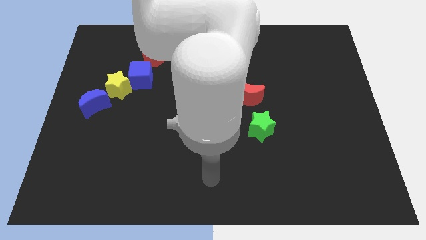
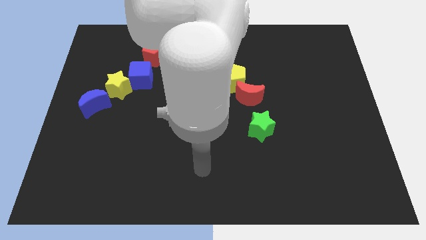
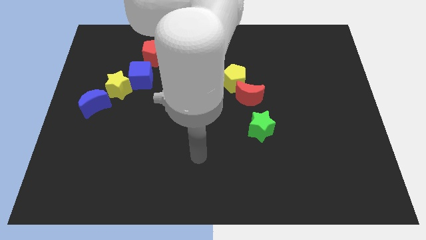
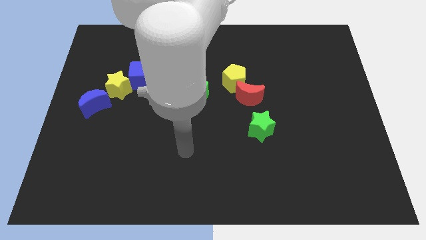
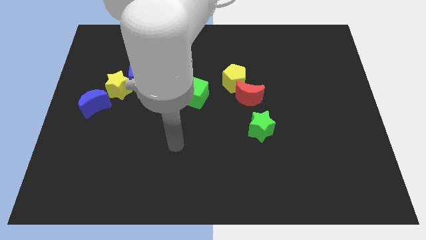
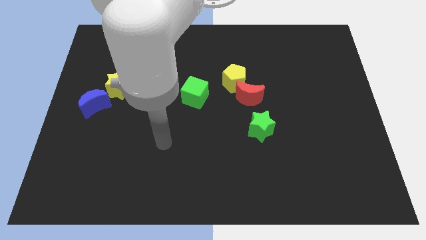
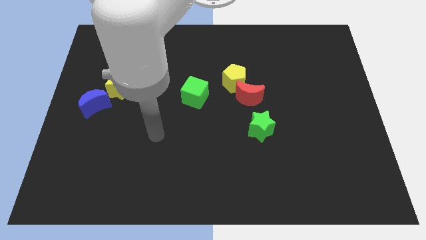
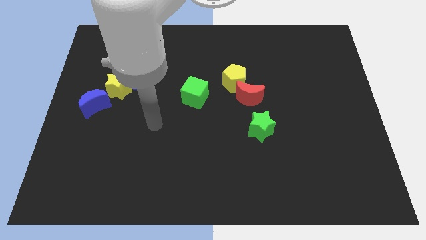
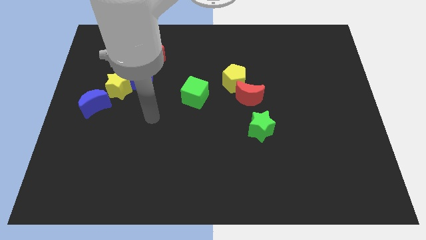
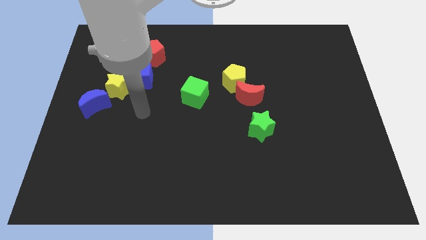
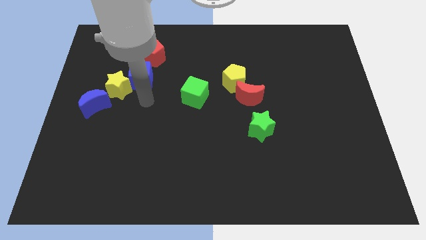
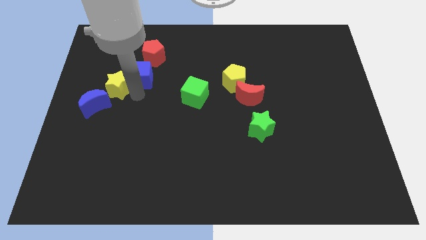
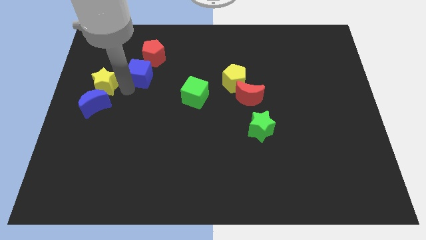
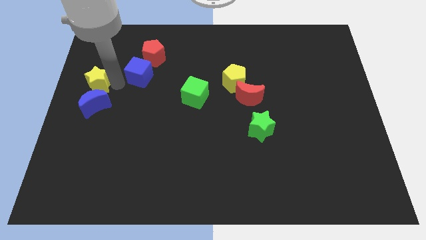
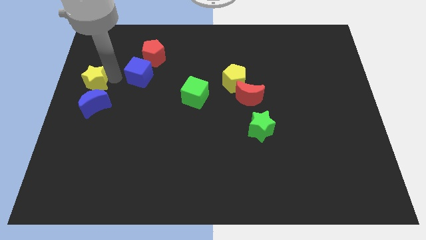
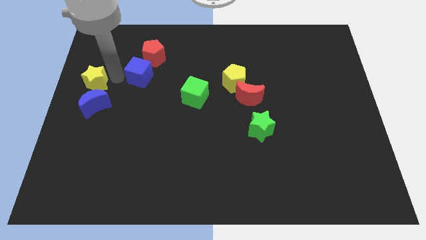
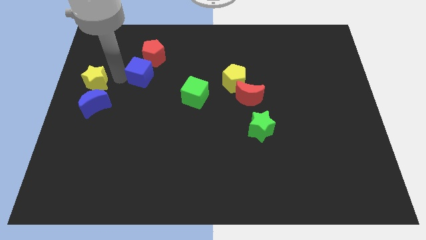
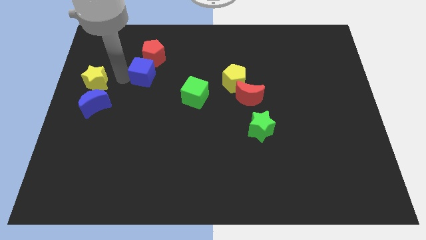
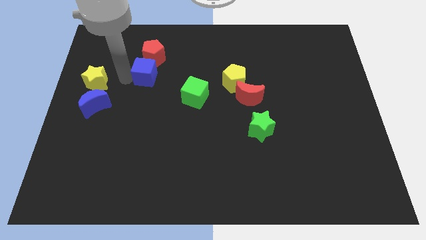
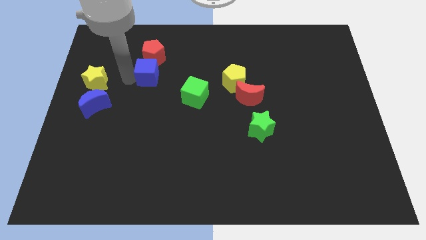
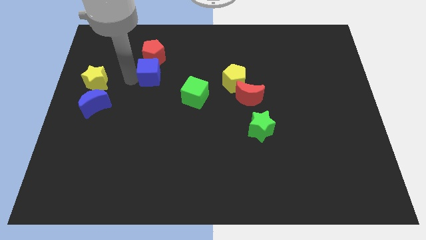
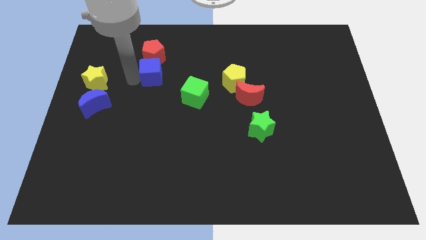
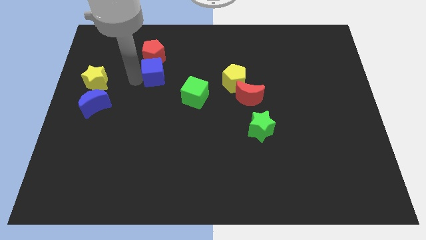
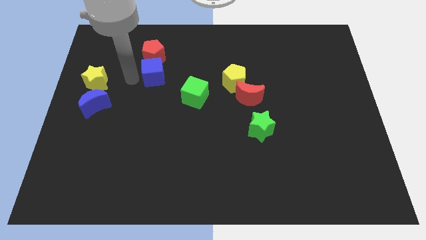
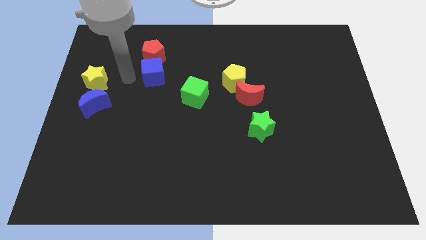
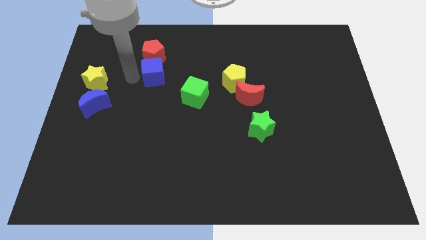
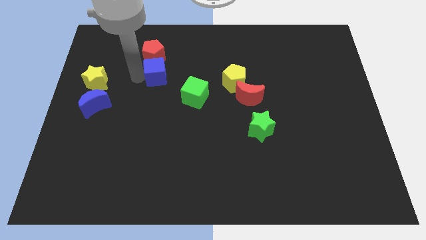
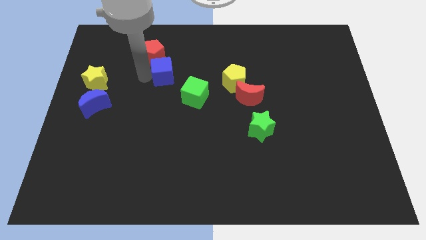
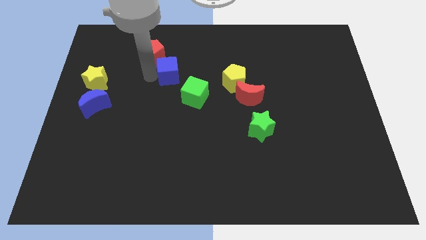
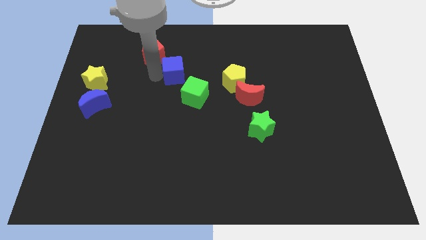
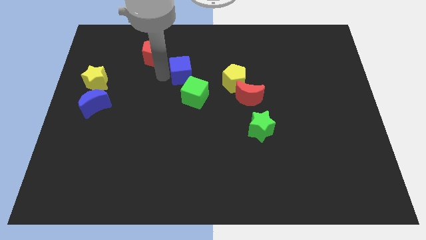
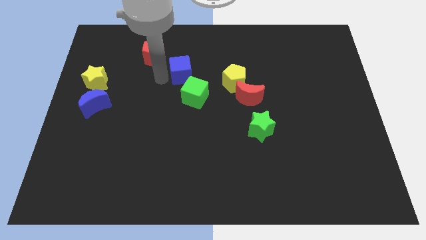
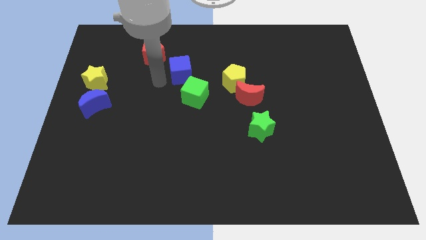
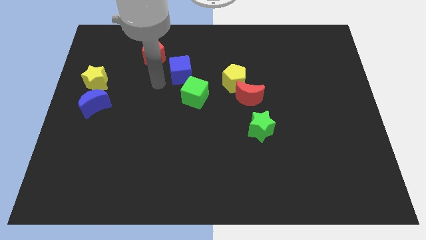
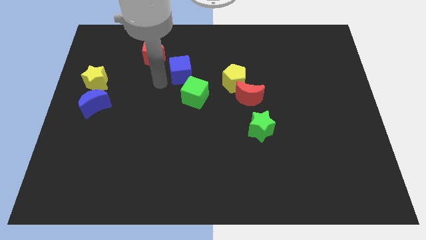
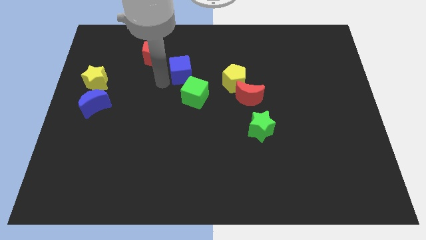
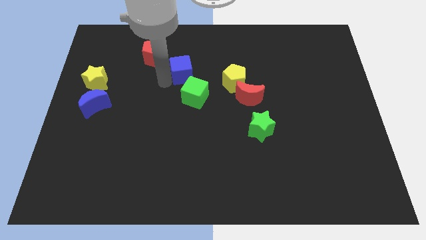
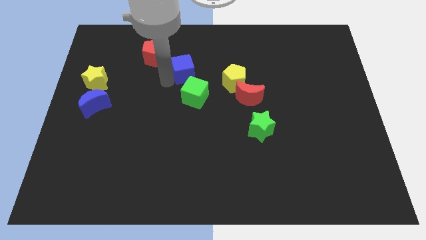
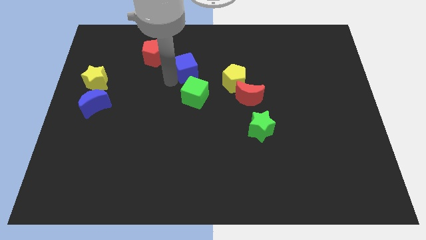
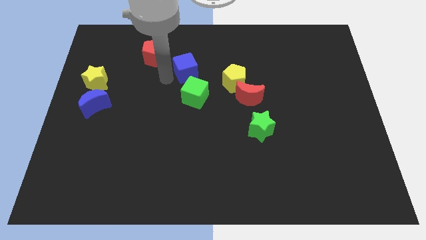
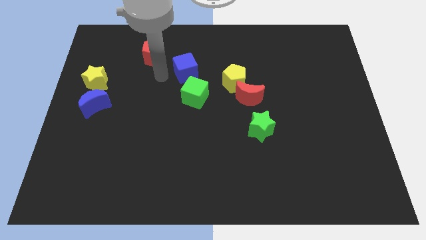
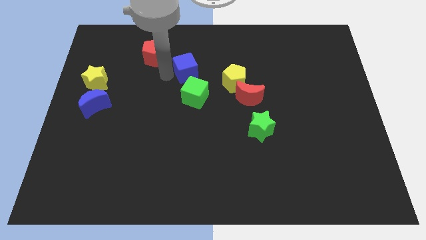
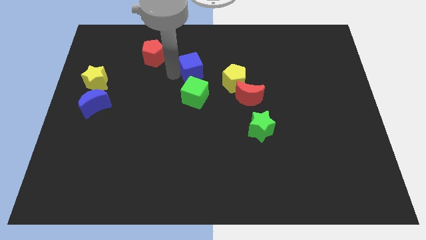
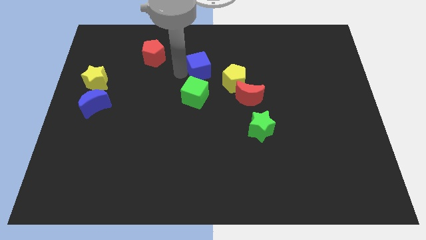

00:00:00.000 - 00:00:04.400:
slide the blue cube to the top left side of the yellow pentagon

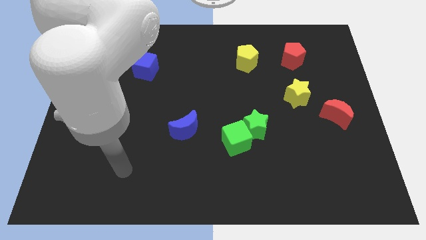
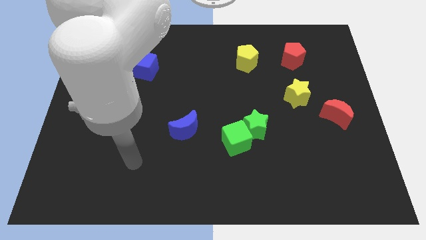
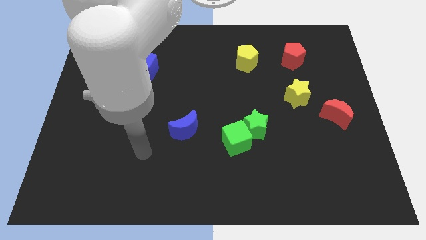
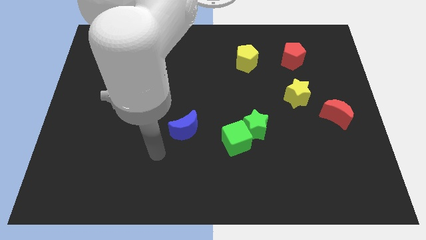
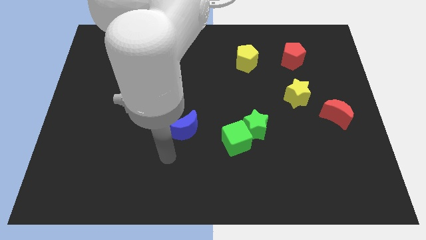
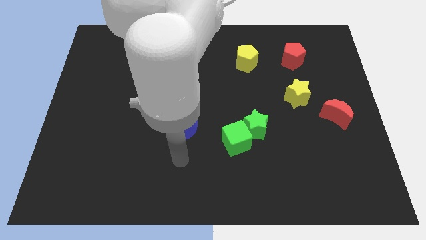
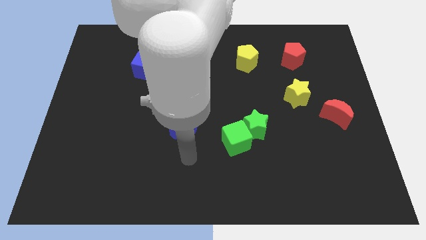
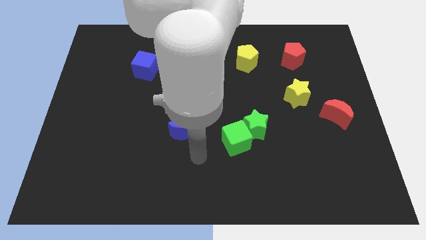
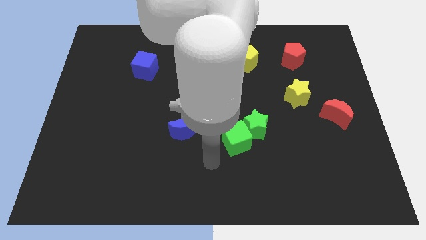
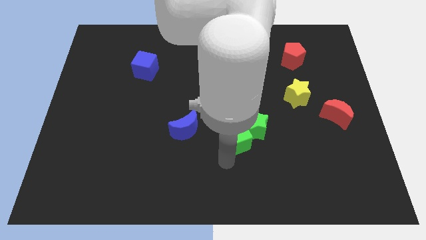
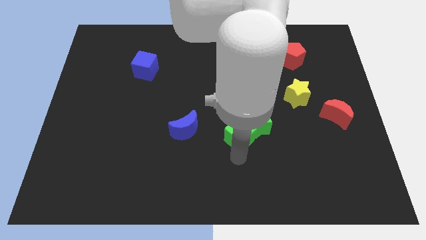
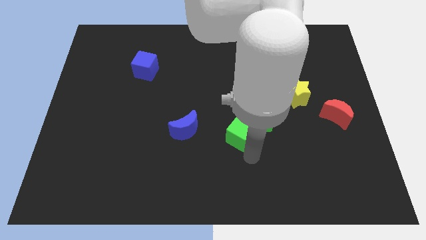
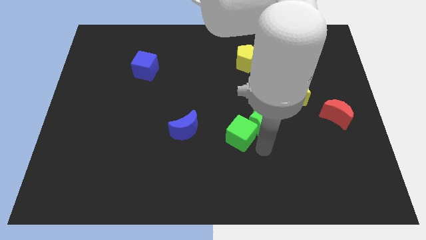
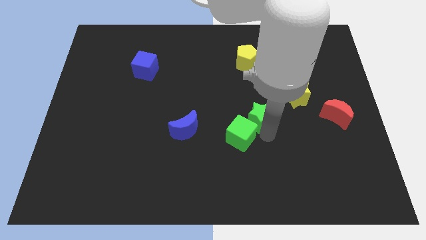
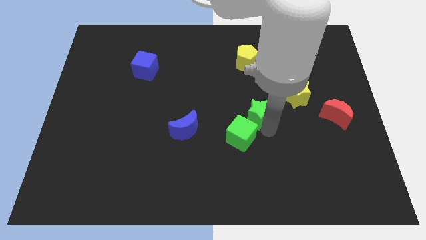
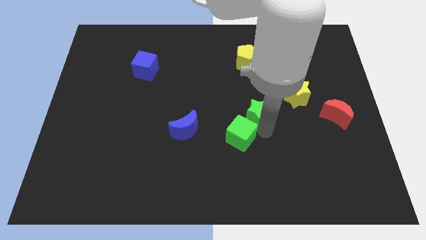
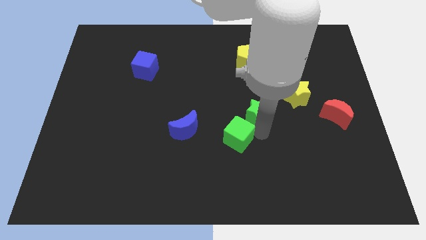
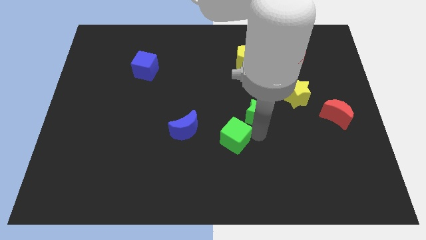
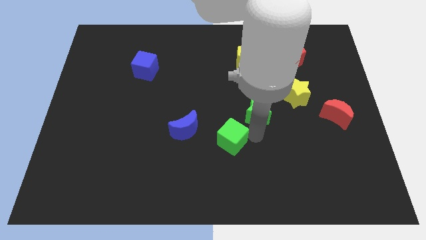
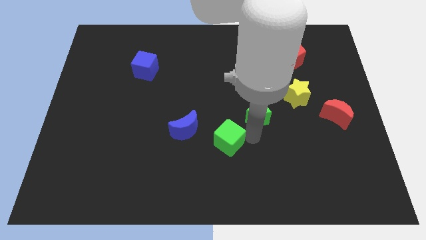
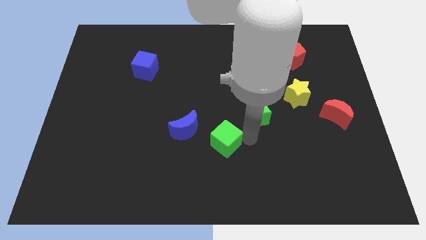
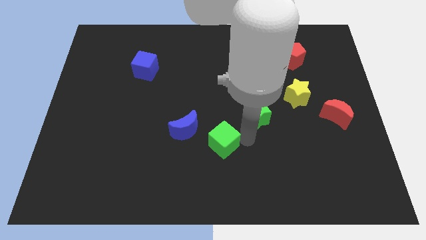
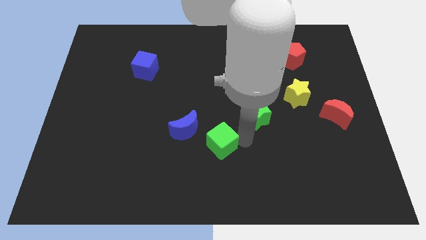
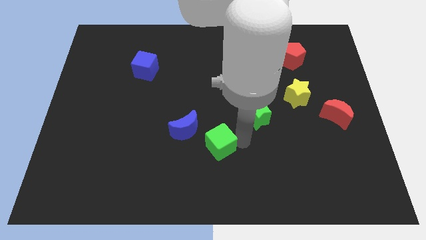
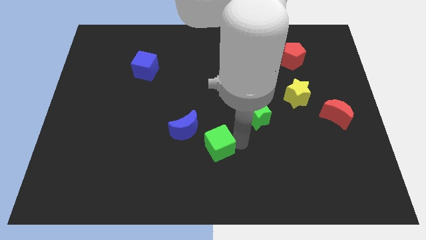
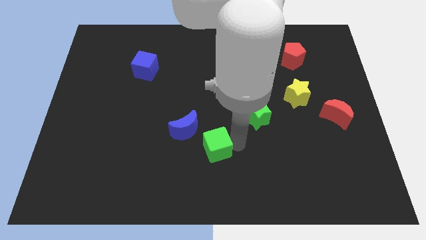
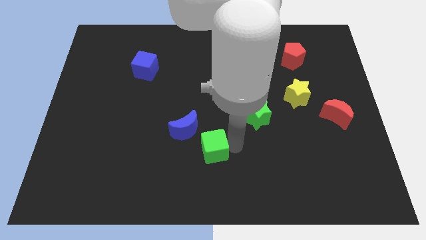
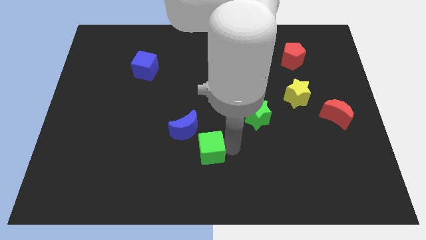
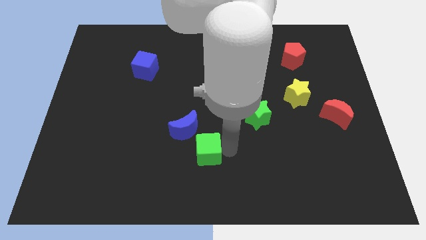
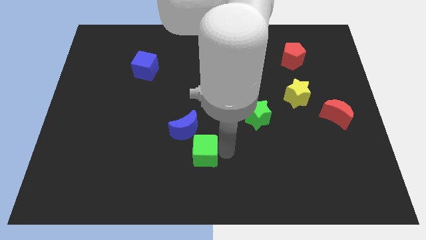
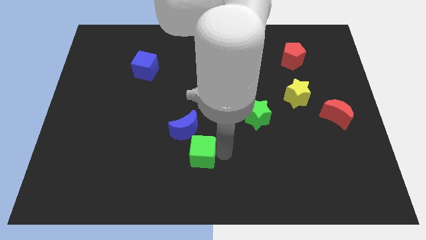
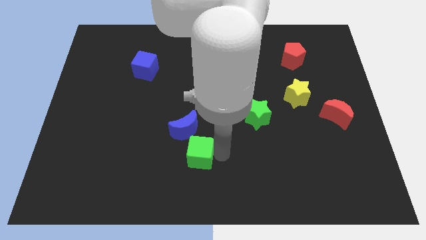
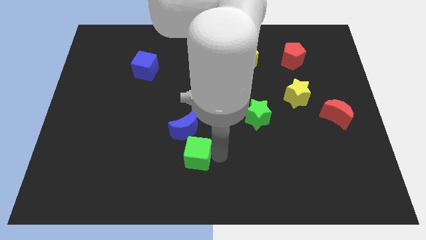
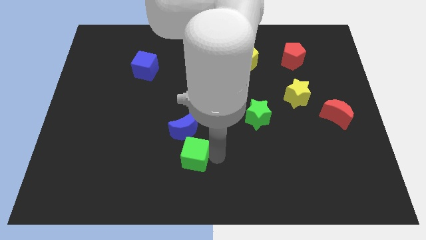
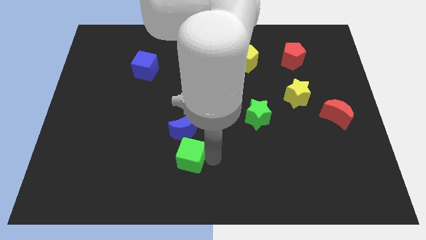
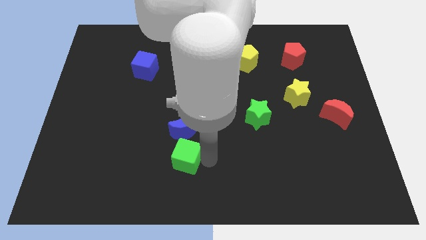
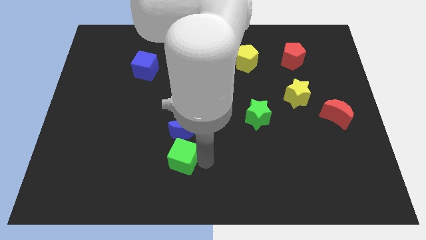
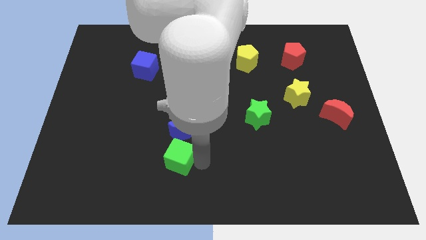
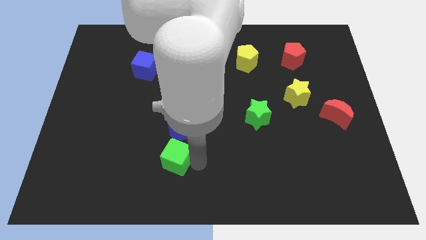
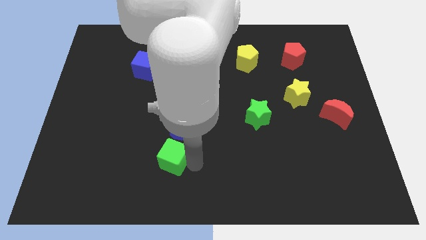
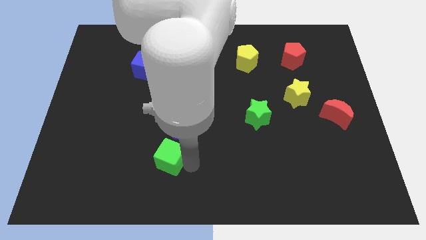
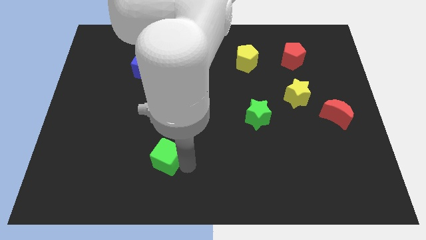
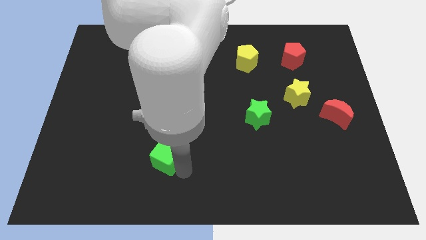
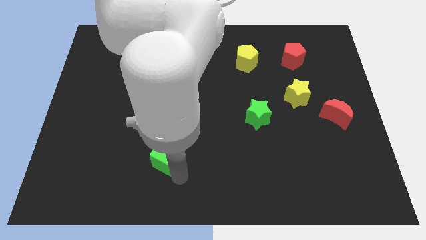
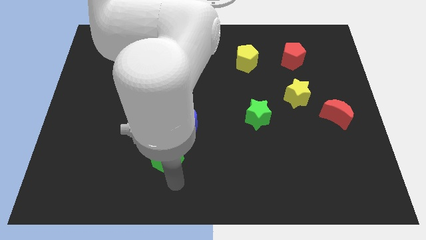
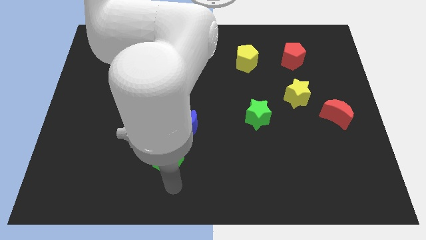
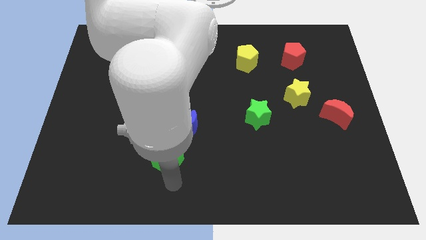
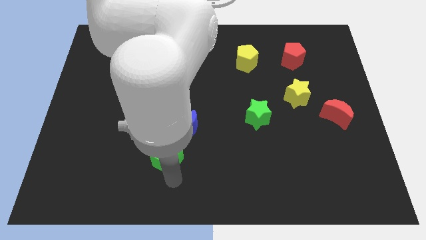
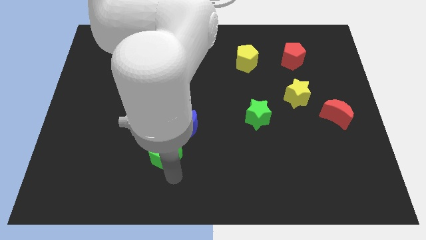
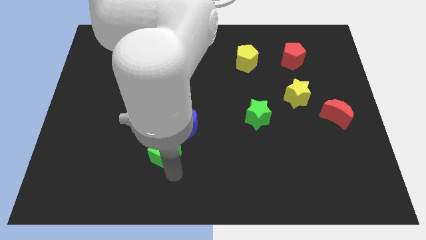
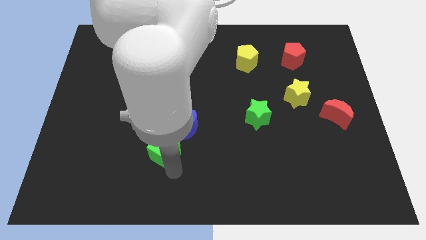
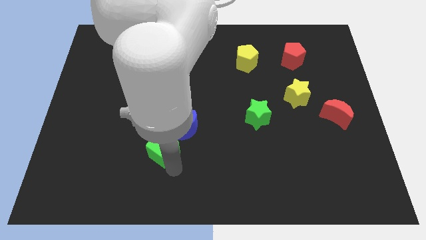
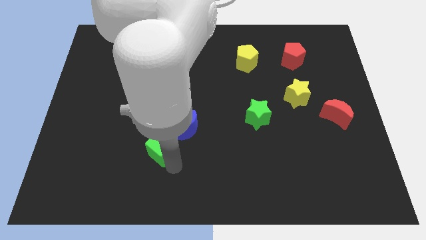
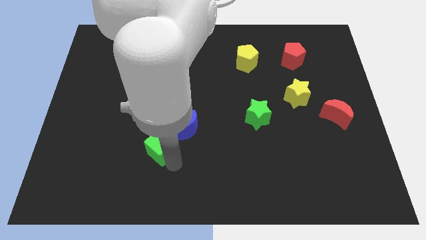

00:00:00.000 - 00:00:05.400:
put the green cube just left of the blue moon
